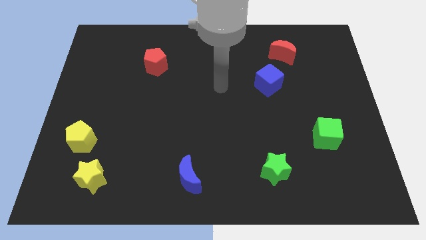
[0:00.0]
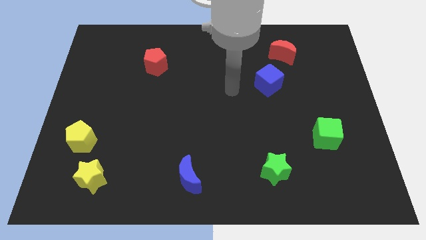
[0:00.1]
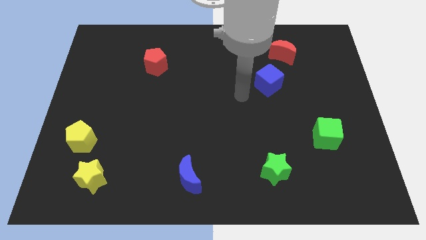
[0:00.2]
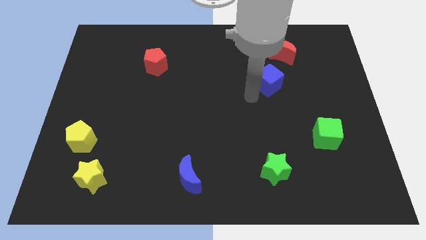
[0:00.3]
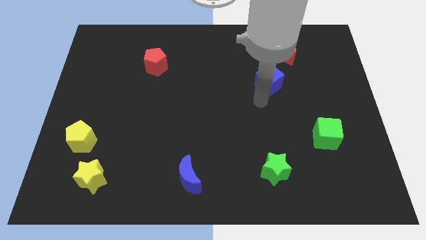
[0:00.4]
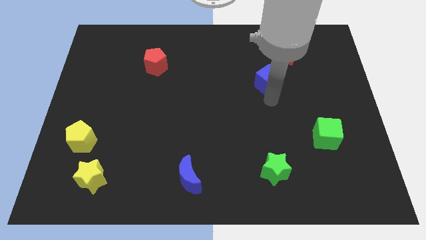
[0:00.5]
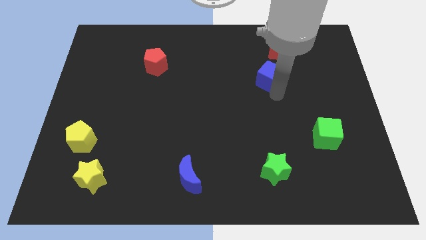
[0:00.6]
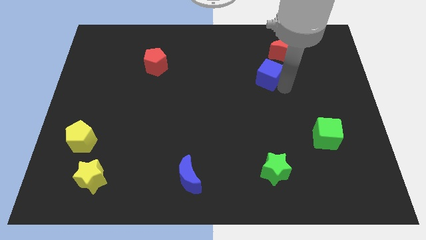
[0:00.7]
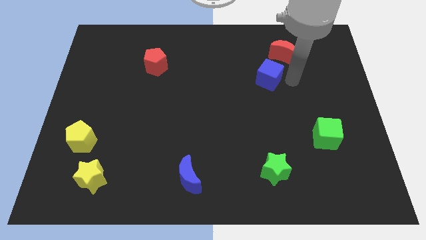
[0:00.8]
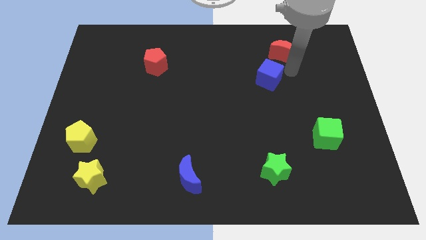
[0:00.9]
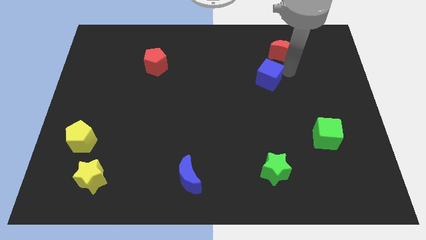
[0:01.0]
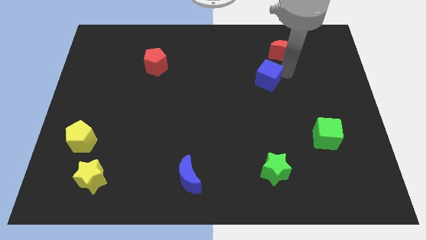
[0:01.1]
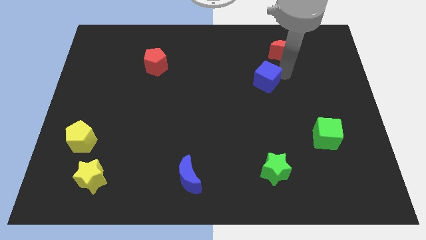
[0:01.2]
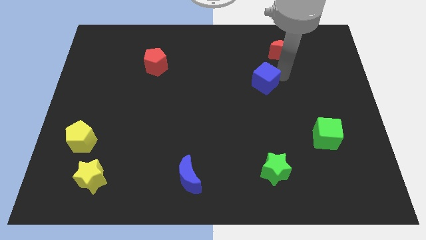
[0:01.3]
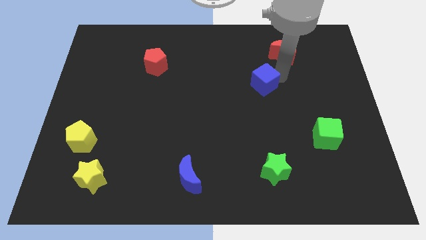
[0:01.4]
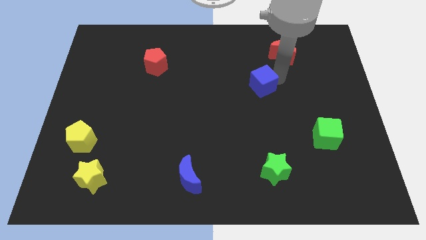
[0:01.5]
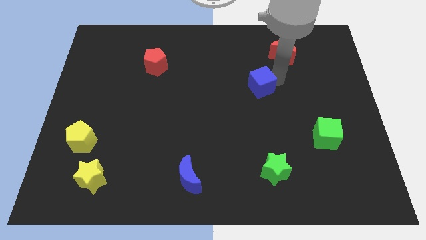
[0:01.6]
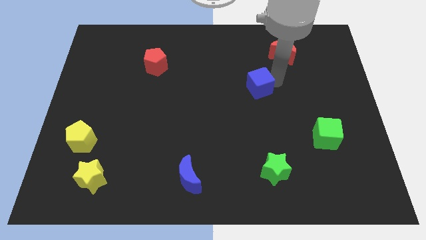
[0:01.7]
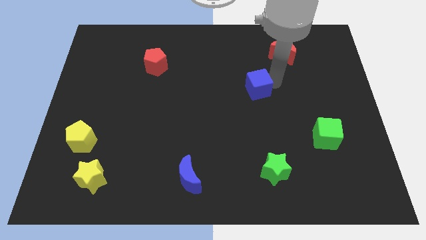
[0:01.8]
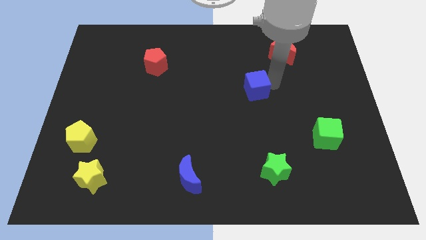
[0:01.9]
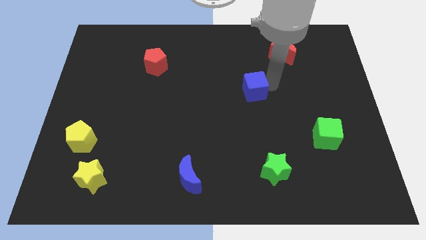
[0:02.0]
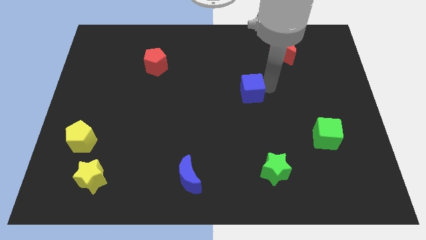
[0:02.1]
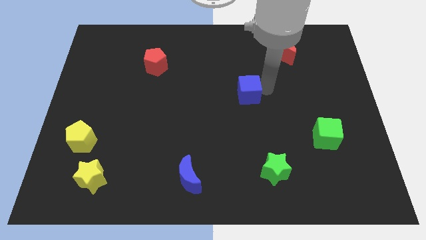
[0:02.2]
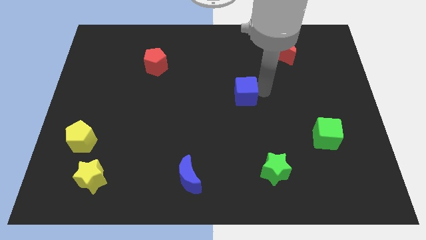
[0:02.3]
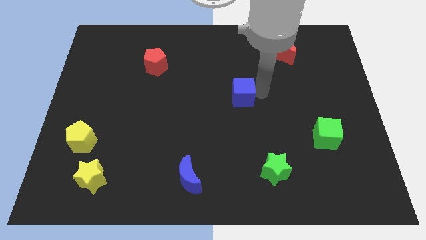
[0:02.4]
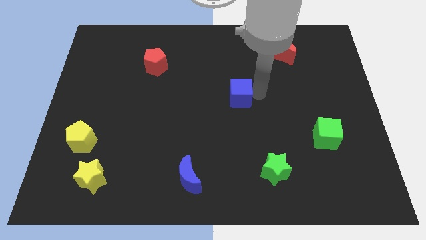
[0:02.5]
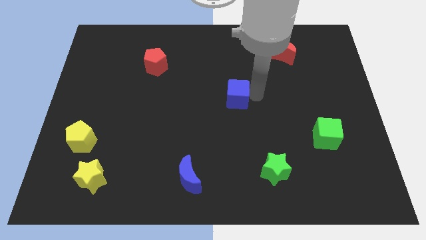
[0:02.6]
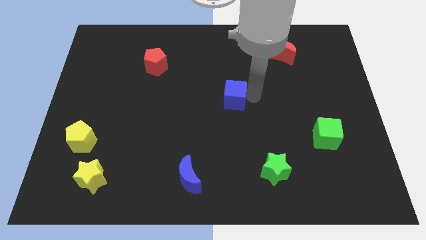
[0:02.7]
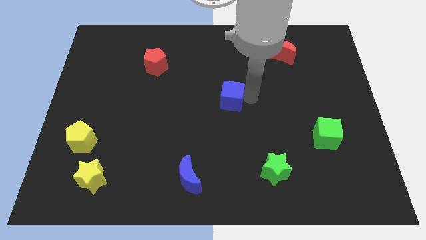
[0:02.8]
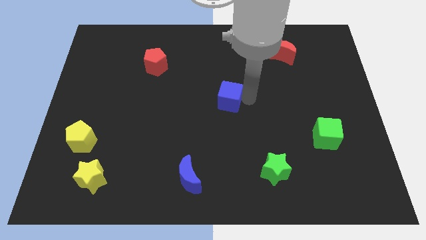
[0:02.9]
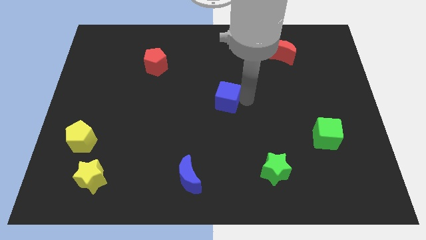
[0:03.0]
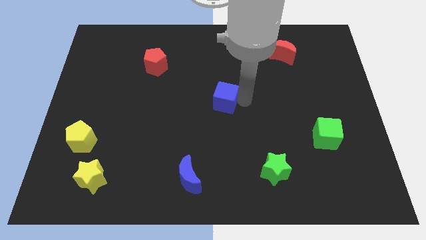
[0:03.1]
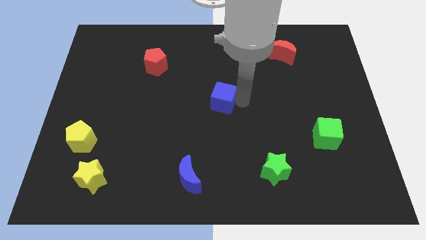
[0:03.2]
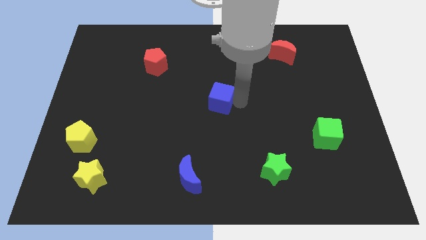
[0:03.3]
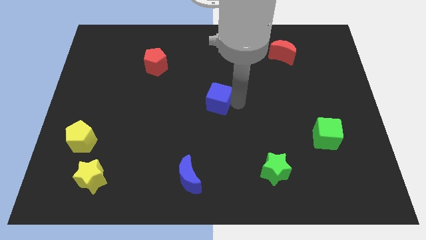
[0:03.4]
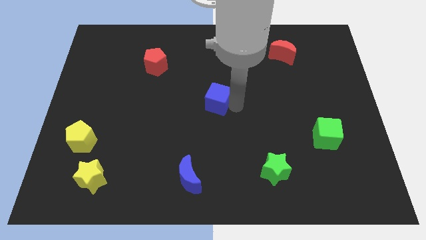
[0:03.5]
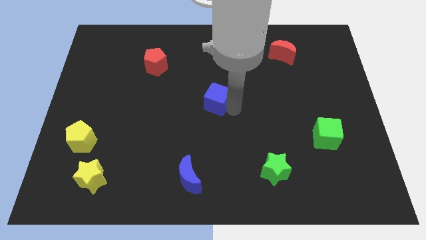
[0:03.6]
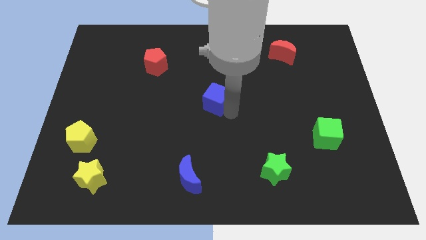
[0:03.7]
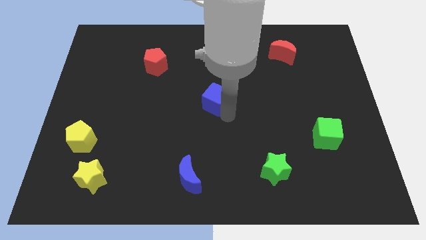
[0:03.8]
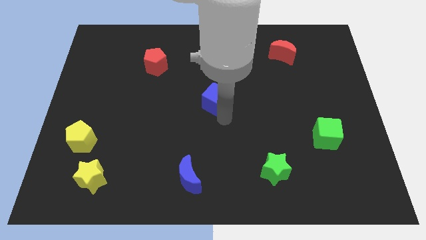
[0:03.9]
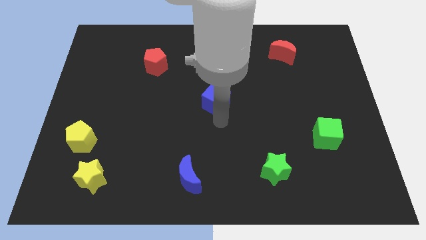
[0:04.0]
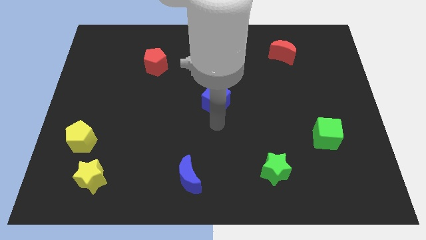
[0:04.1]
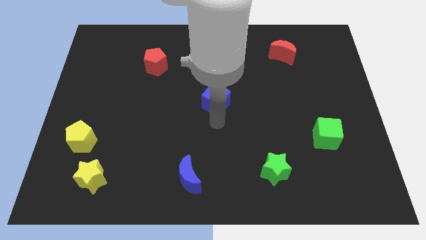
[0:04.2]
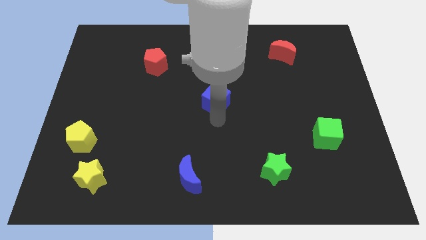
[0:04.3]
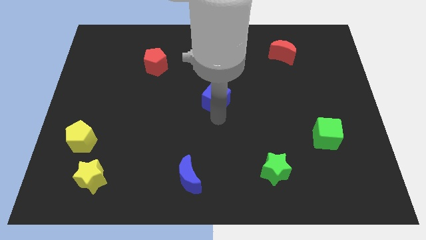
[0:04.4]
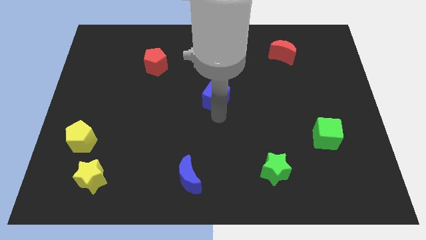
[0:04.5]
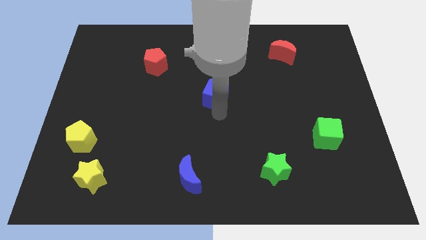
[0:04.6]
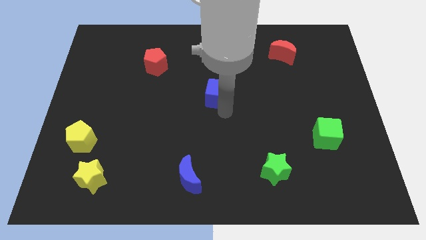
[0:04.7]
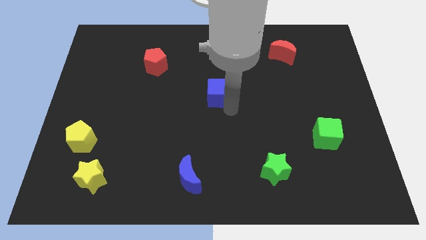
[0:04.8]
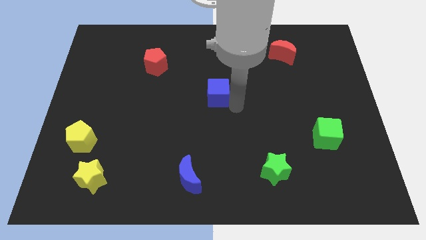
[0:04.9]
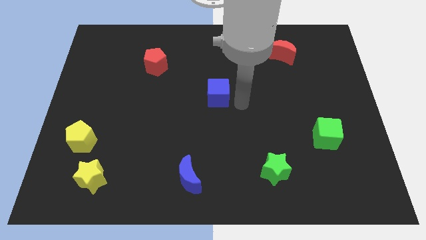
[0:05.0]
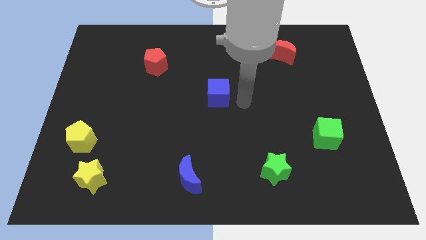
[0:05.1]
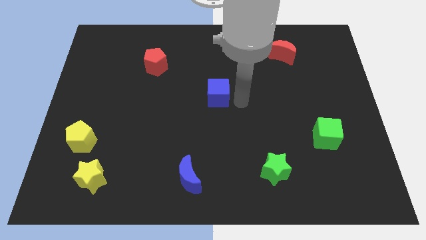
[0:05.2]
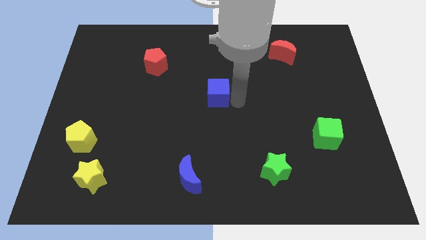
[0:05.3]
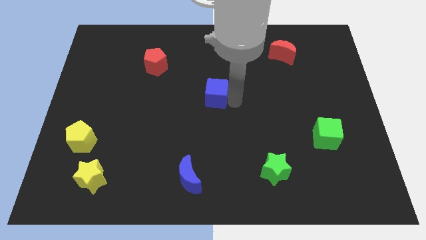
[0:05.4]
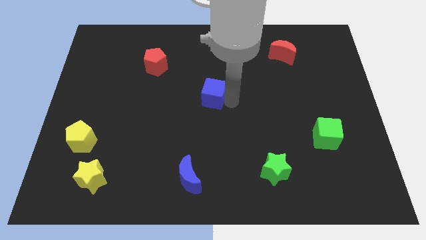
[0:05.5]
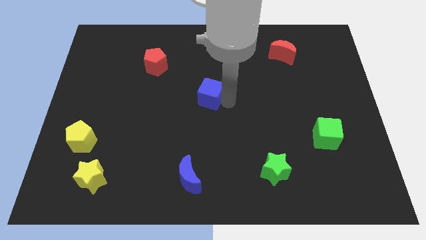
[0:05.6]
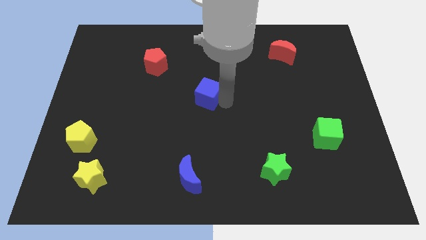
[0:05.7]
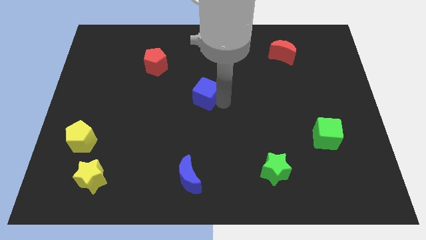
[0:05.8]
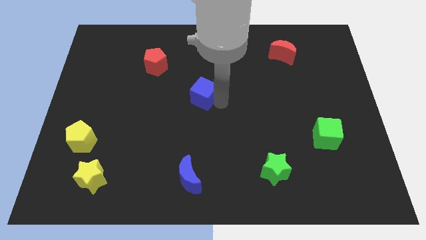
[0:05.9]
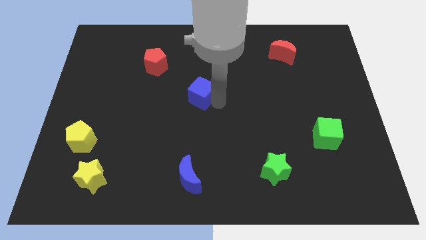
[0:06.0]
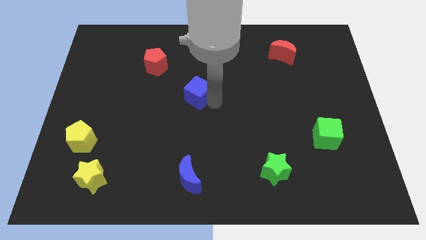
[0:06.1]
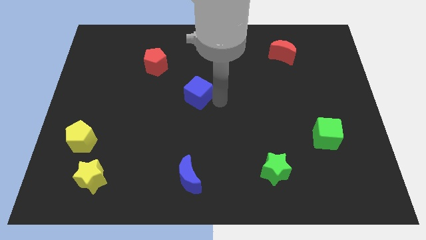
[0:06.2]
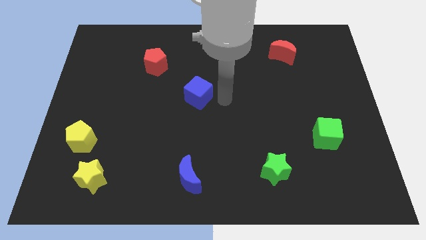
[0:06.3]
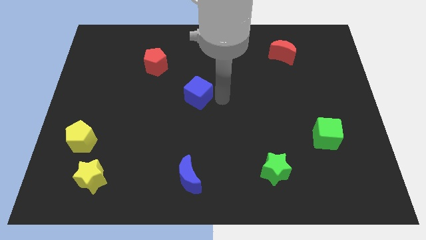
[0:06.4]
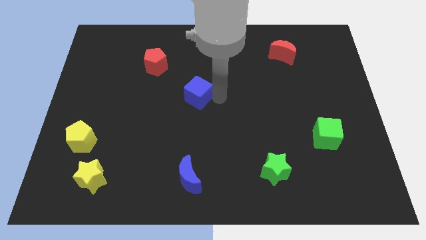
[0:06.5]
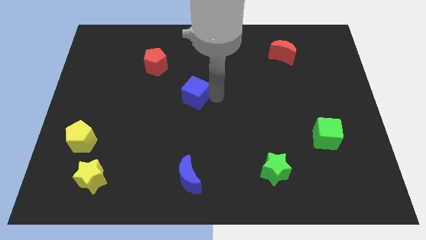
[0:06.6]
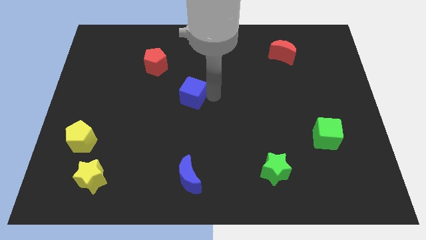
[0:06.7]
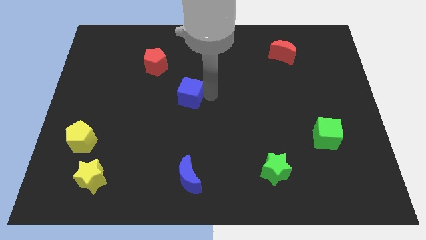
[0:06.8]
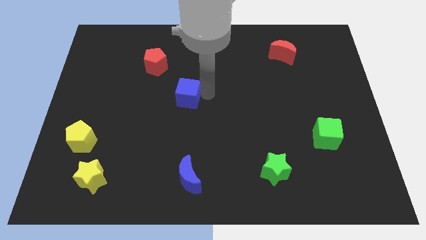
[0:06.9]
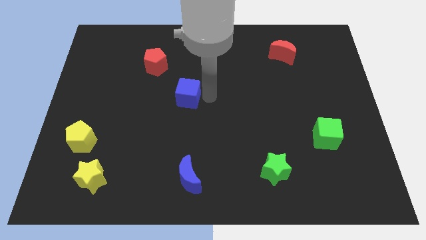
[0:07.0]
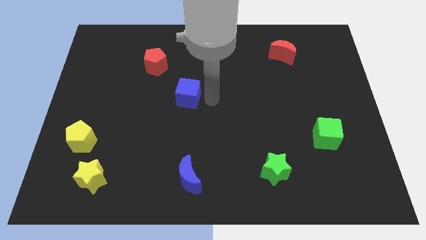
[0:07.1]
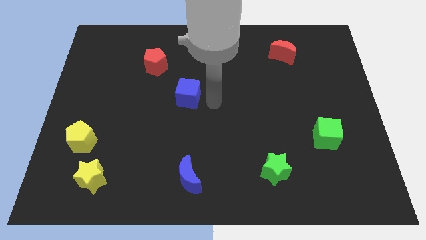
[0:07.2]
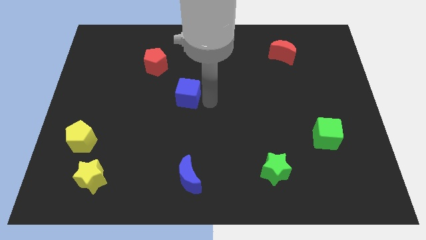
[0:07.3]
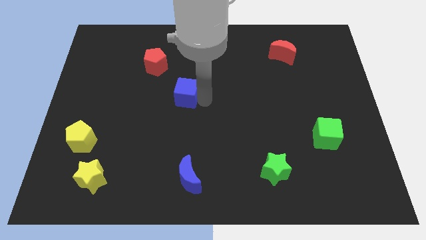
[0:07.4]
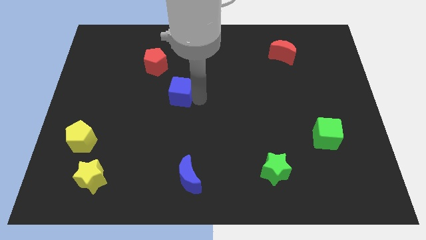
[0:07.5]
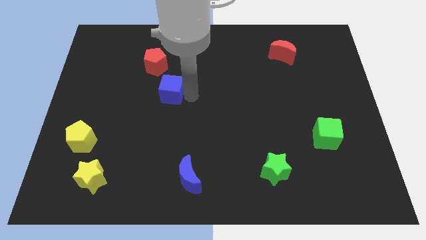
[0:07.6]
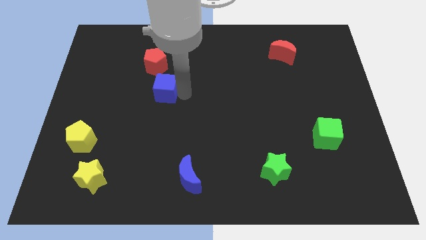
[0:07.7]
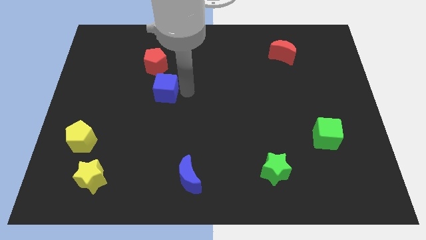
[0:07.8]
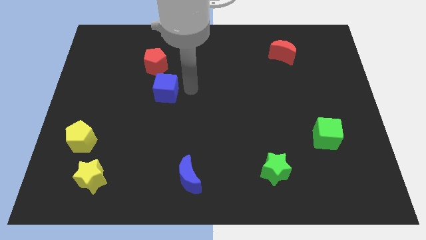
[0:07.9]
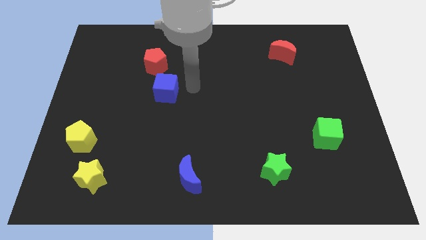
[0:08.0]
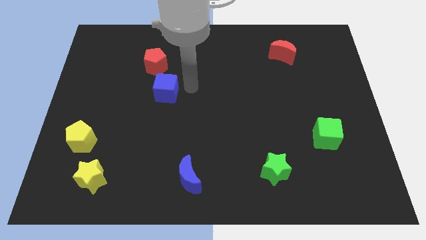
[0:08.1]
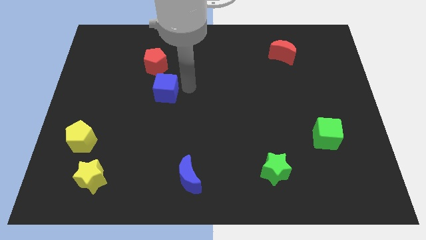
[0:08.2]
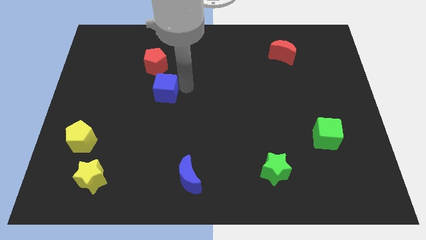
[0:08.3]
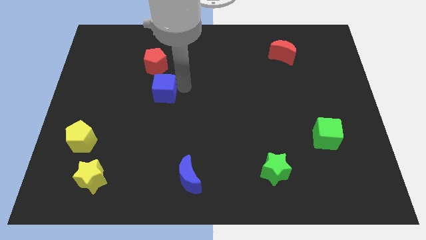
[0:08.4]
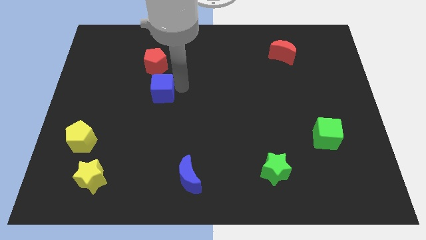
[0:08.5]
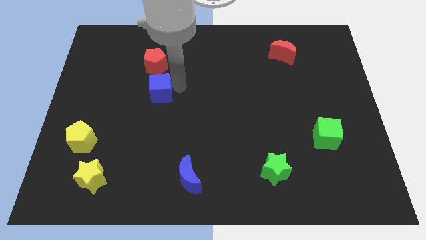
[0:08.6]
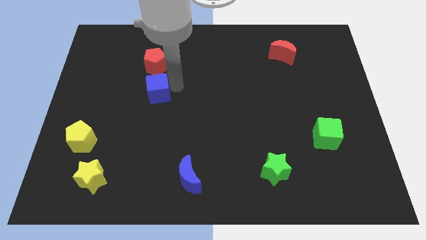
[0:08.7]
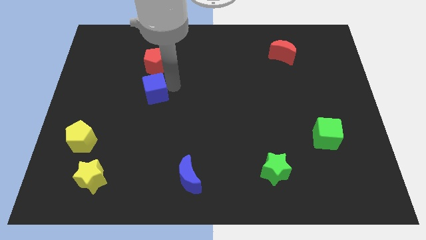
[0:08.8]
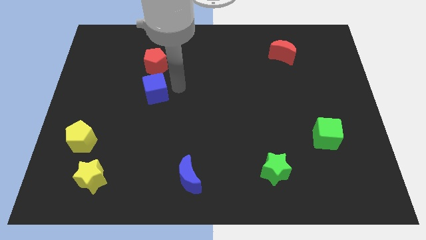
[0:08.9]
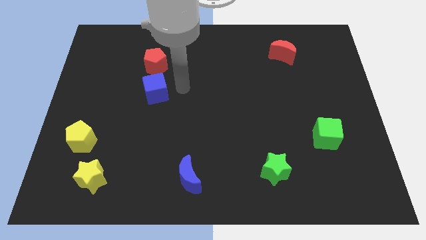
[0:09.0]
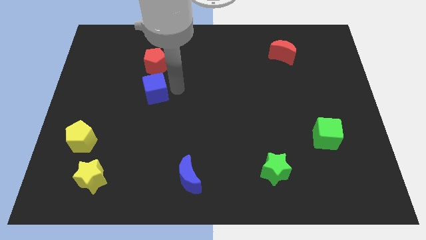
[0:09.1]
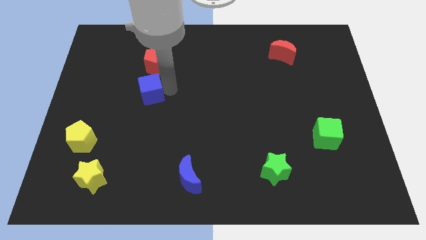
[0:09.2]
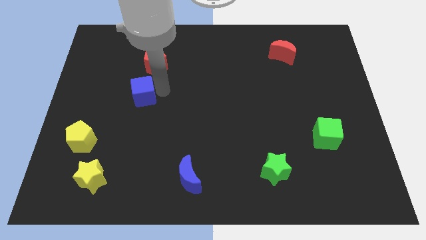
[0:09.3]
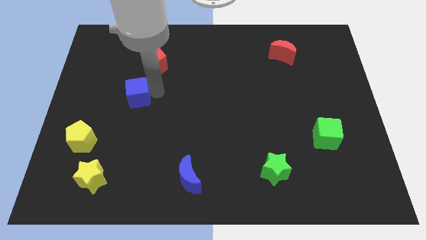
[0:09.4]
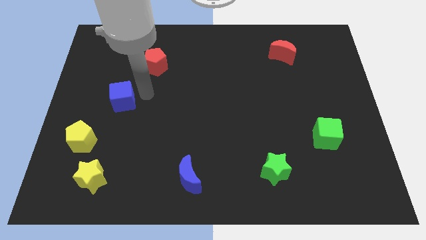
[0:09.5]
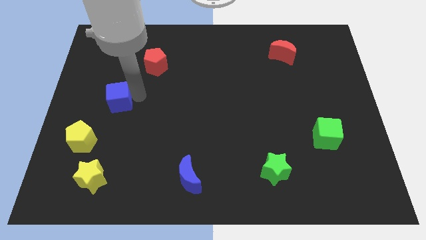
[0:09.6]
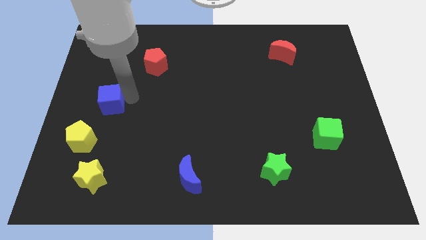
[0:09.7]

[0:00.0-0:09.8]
push the blue cube above the yellow pentagon
